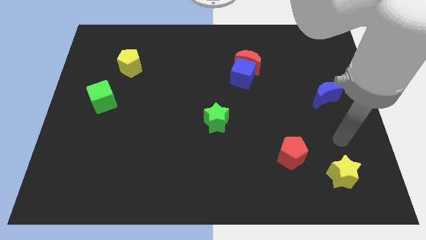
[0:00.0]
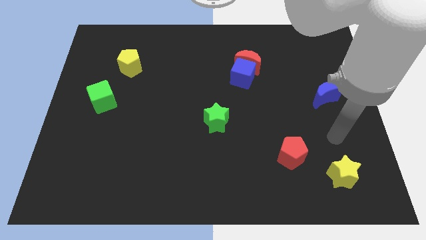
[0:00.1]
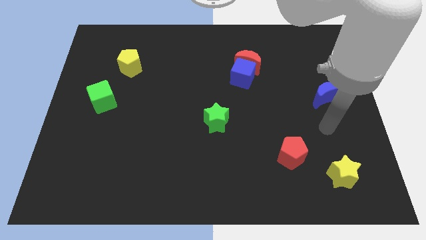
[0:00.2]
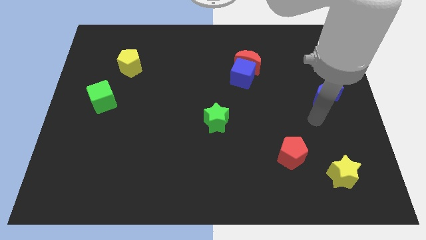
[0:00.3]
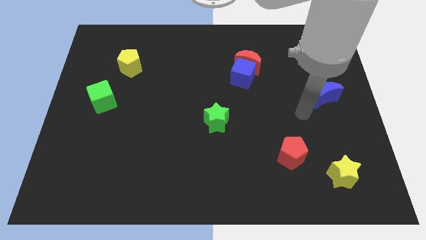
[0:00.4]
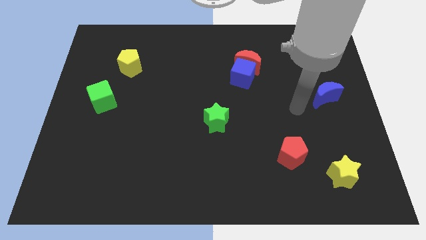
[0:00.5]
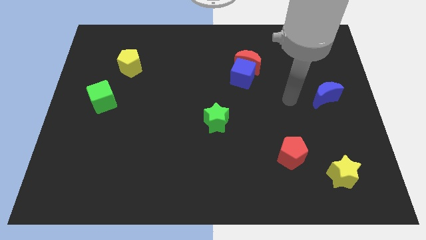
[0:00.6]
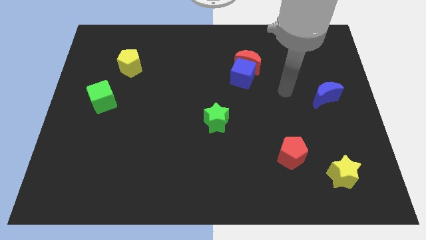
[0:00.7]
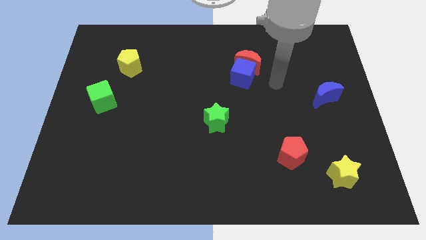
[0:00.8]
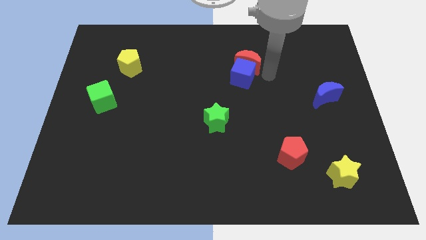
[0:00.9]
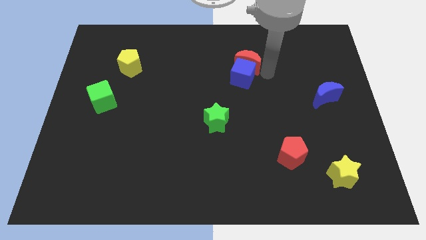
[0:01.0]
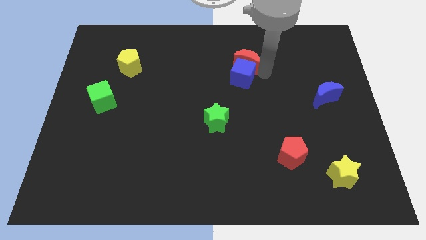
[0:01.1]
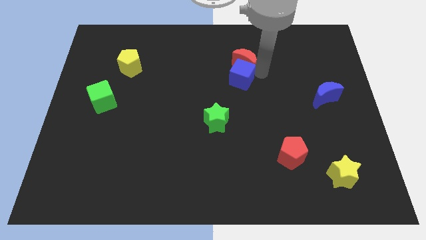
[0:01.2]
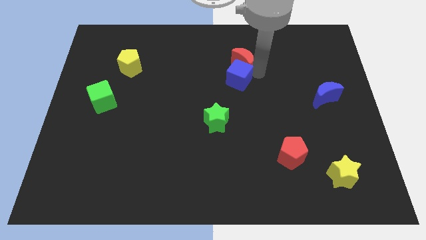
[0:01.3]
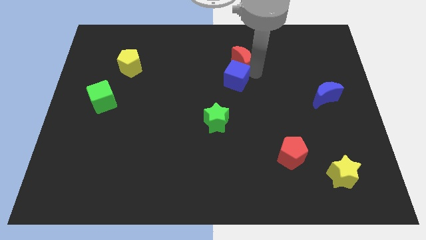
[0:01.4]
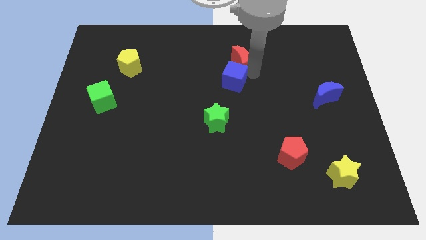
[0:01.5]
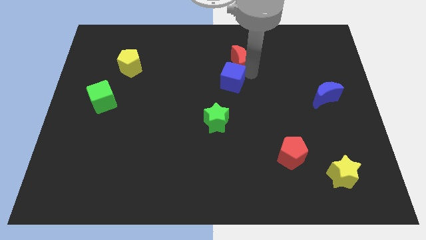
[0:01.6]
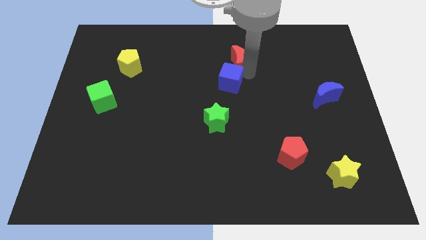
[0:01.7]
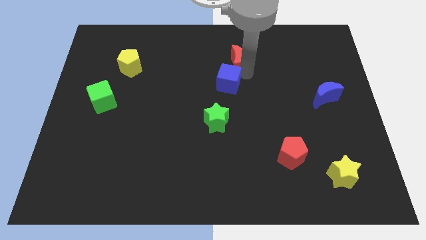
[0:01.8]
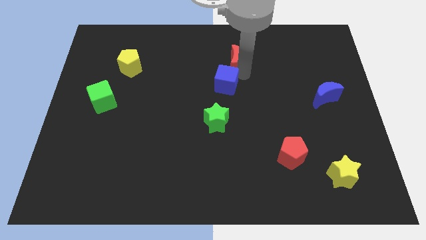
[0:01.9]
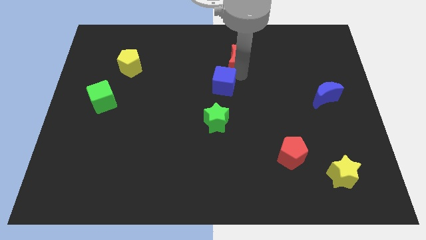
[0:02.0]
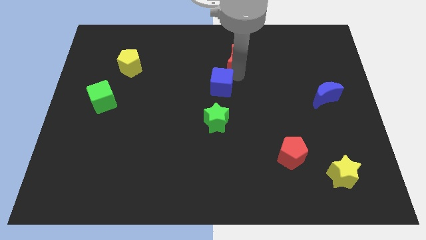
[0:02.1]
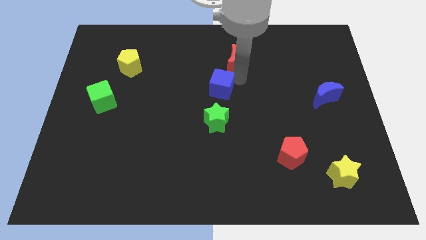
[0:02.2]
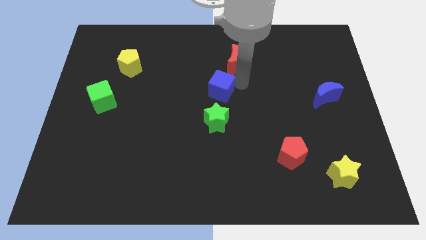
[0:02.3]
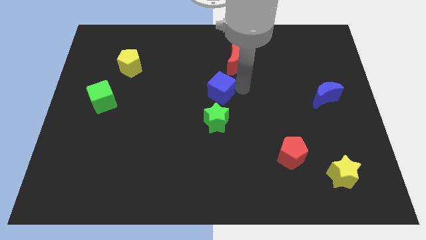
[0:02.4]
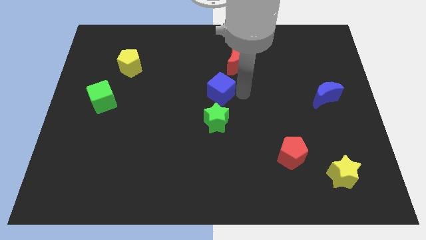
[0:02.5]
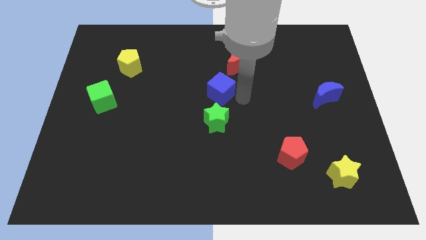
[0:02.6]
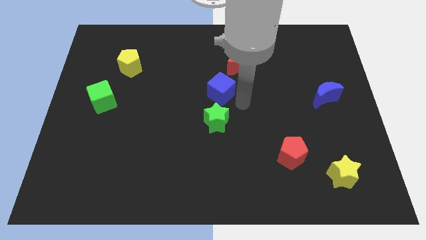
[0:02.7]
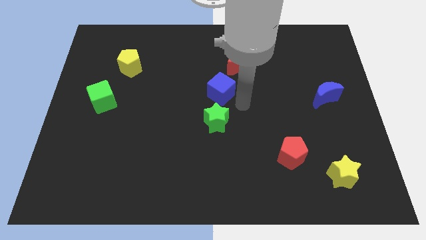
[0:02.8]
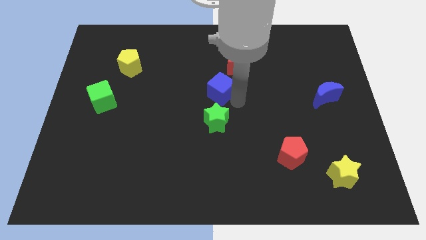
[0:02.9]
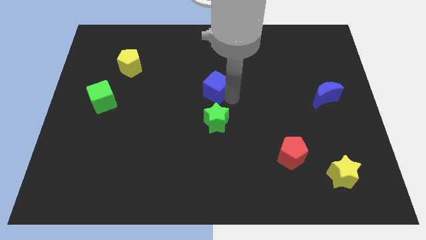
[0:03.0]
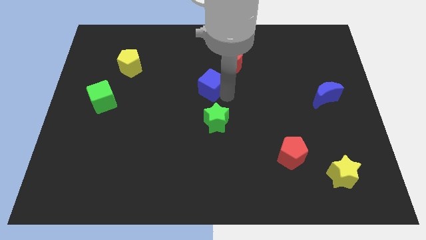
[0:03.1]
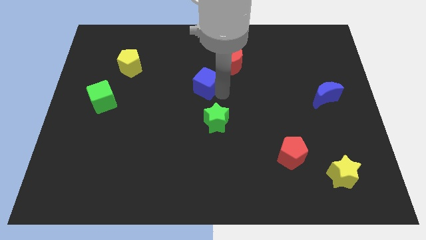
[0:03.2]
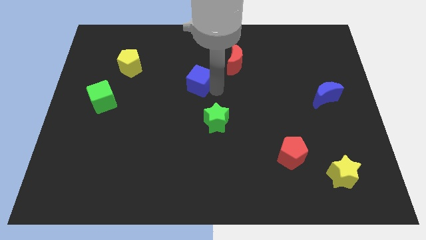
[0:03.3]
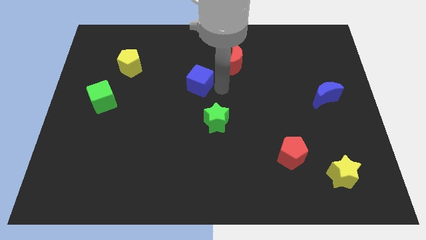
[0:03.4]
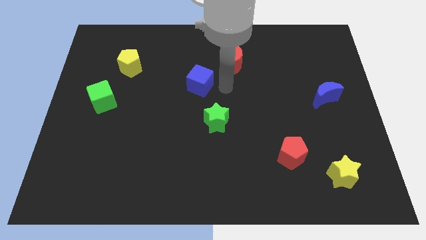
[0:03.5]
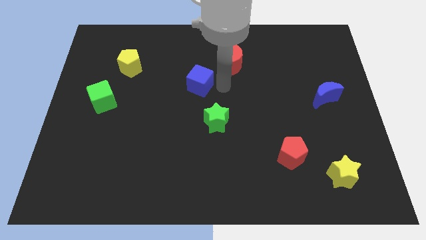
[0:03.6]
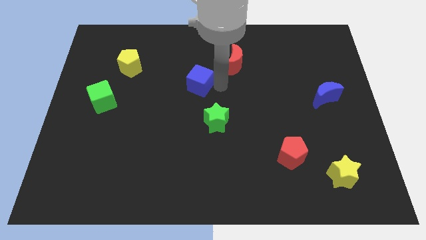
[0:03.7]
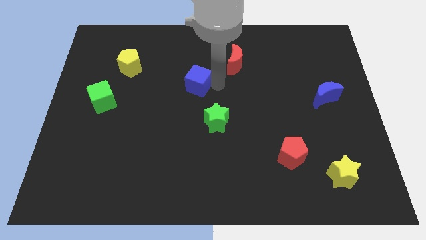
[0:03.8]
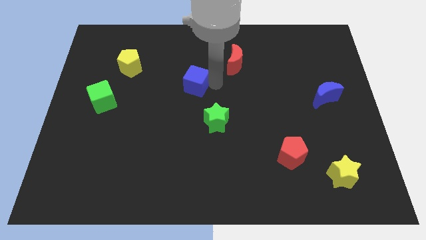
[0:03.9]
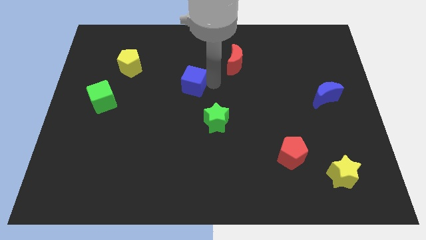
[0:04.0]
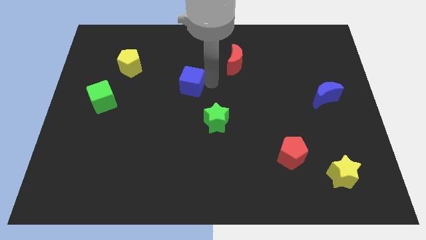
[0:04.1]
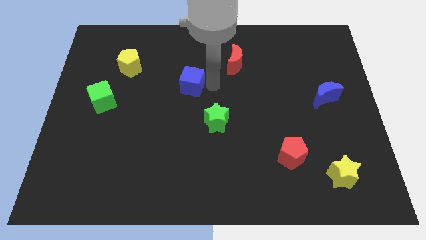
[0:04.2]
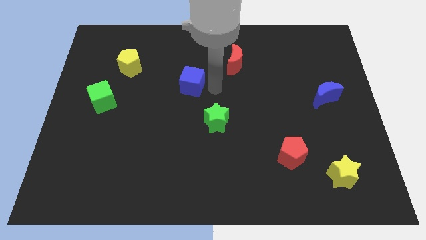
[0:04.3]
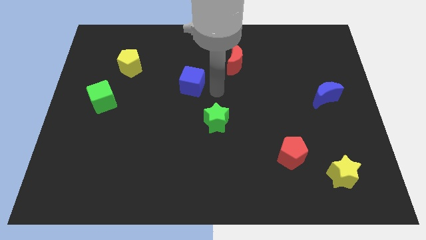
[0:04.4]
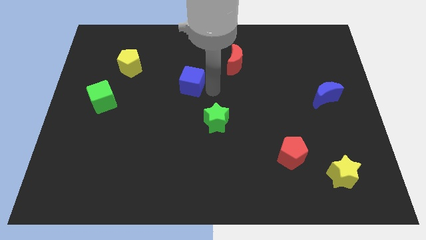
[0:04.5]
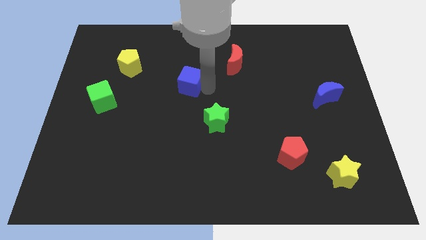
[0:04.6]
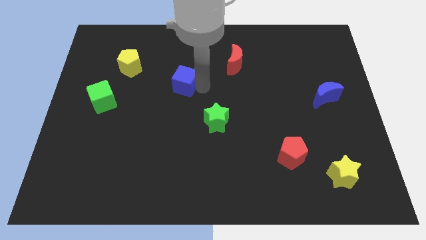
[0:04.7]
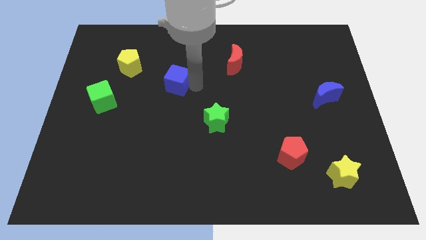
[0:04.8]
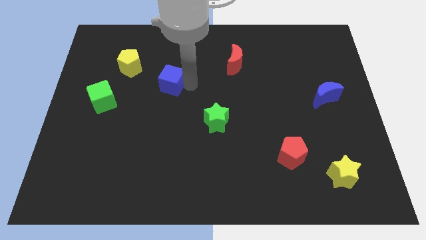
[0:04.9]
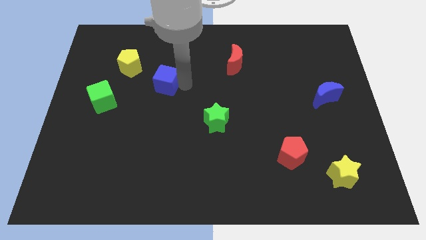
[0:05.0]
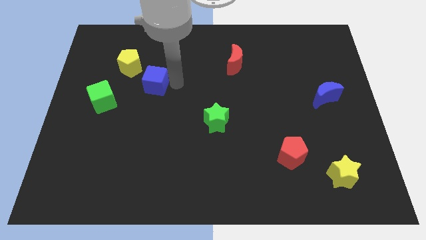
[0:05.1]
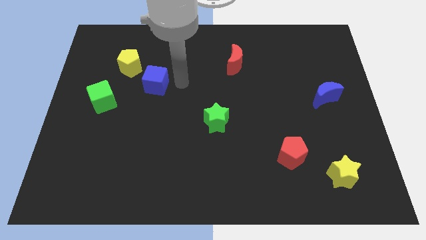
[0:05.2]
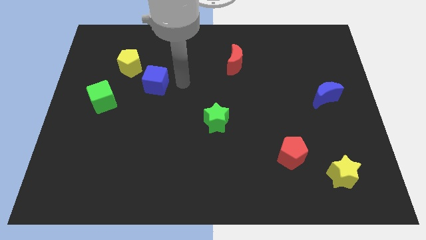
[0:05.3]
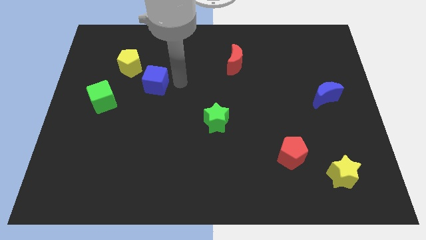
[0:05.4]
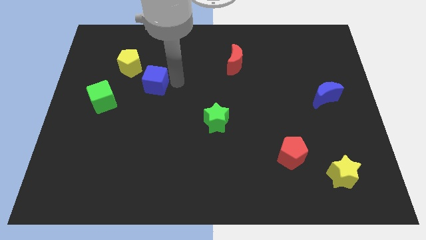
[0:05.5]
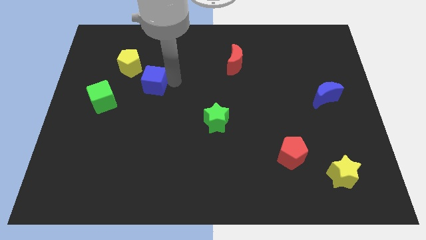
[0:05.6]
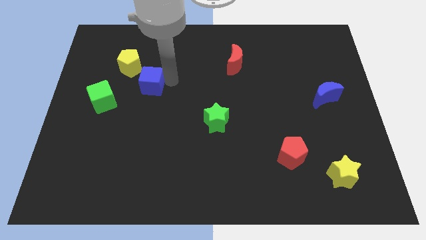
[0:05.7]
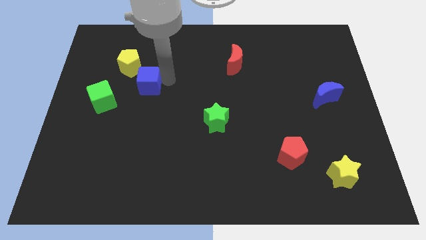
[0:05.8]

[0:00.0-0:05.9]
move the blue cube to the top right side of the green cube

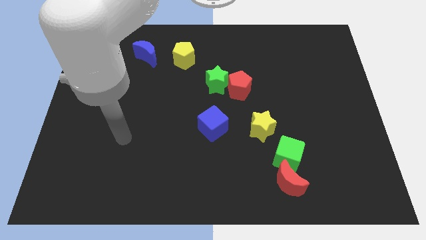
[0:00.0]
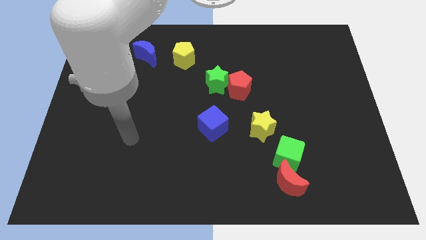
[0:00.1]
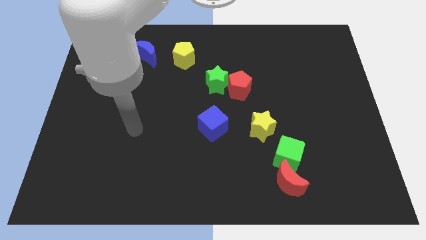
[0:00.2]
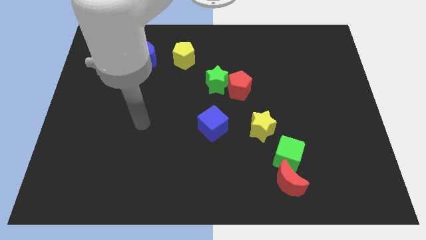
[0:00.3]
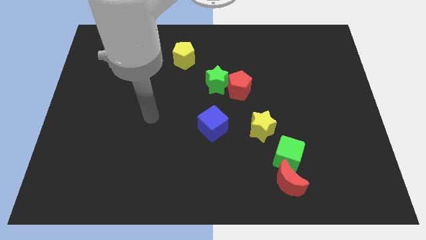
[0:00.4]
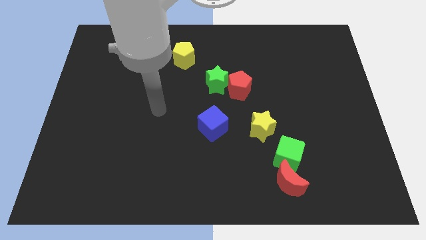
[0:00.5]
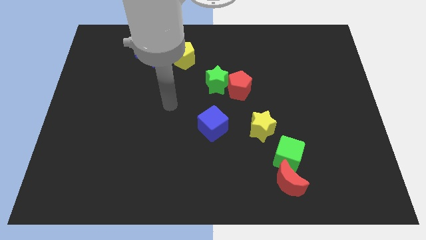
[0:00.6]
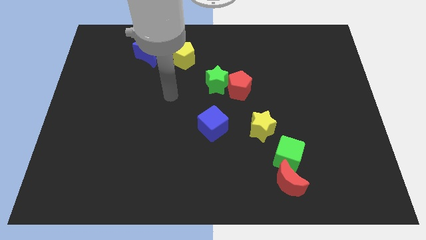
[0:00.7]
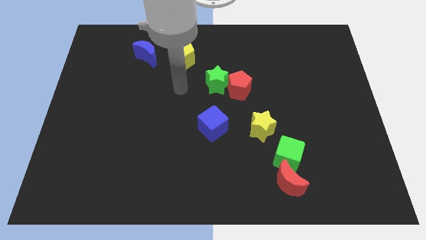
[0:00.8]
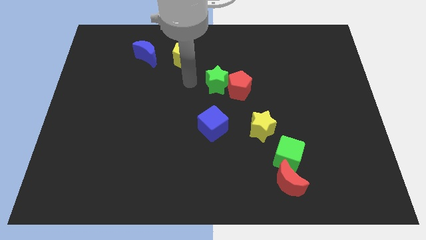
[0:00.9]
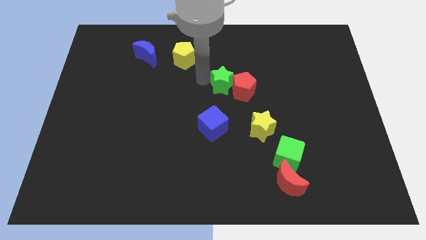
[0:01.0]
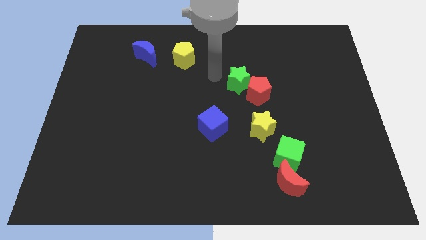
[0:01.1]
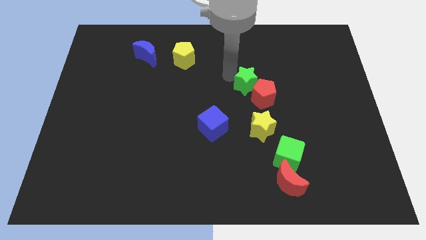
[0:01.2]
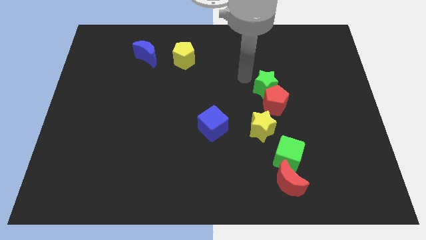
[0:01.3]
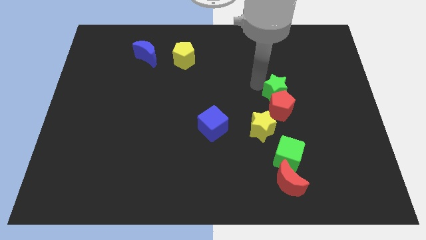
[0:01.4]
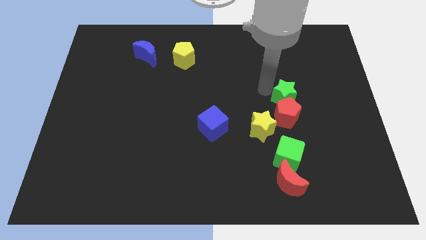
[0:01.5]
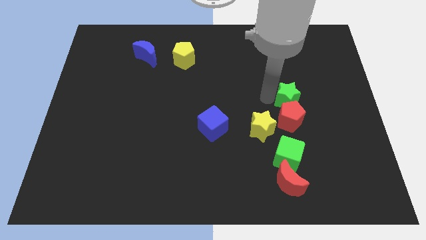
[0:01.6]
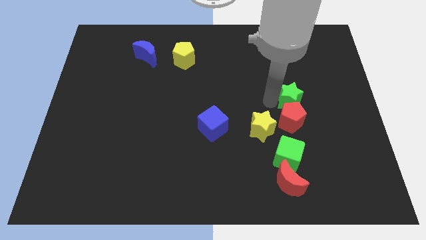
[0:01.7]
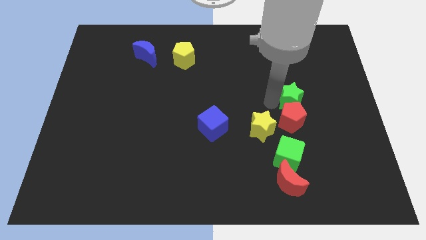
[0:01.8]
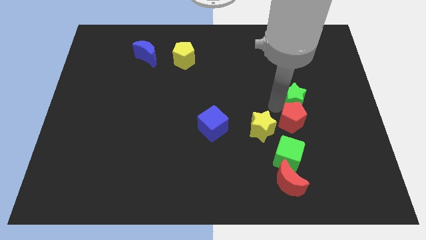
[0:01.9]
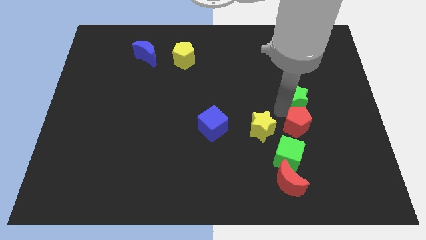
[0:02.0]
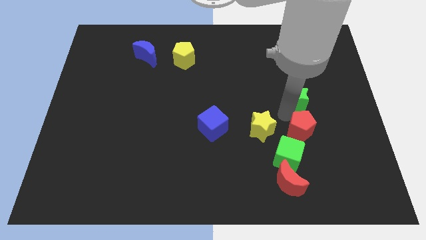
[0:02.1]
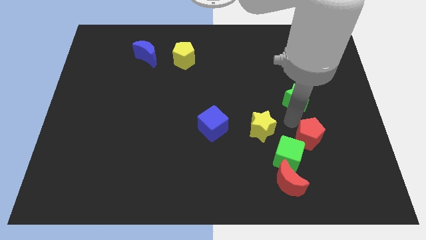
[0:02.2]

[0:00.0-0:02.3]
move the red pentagon just right of the green cube
